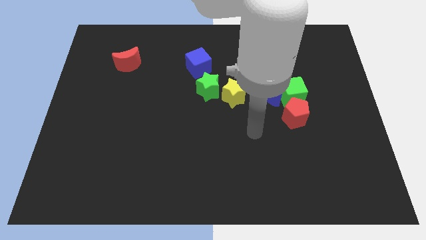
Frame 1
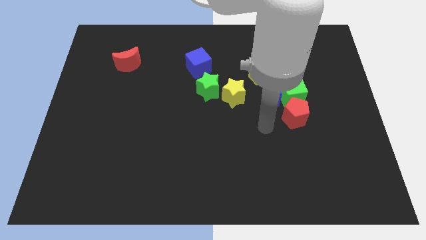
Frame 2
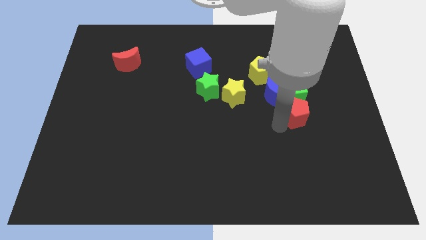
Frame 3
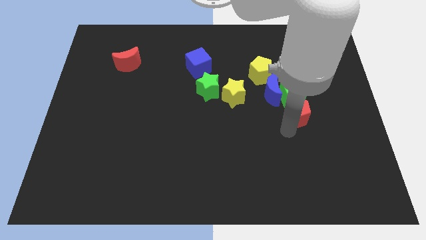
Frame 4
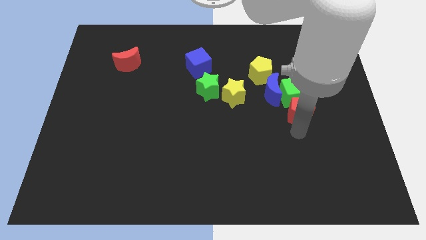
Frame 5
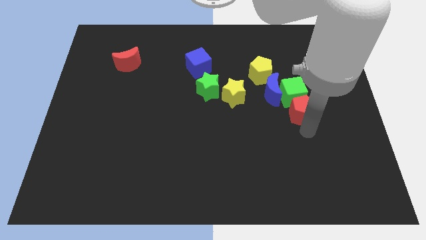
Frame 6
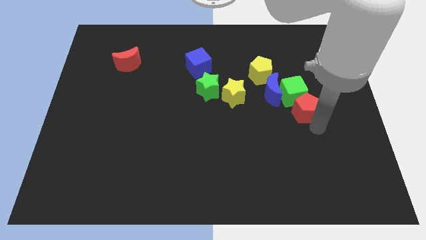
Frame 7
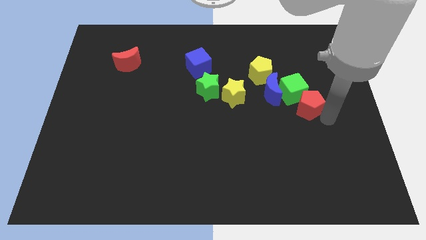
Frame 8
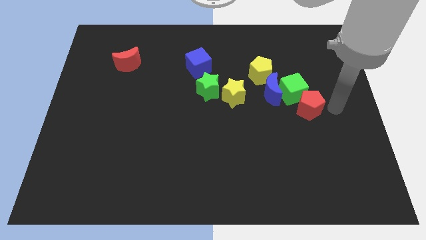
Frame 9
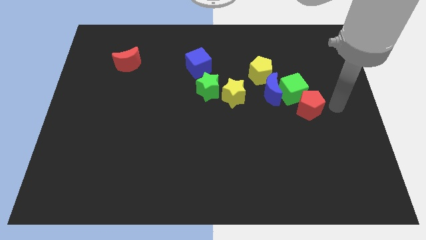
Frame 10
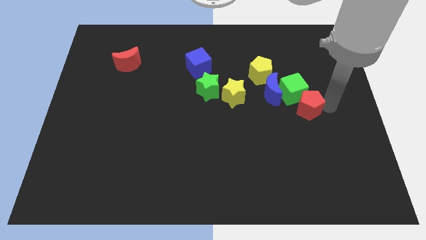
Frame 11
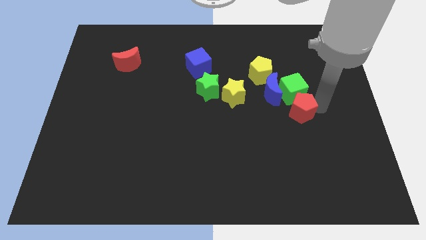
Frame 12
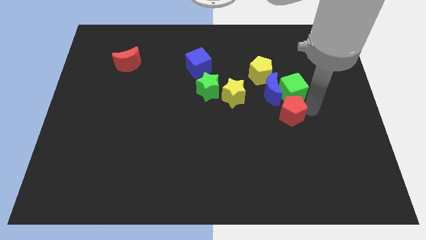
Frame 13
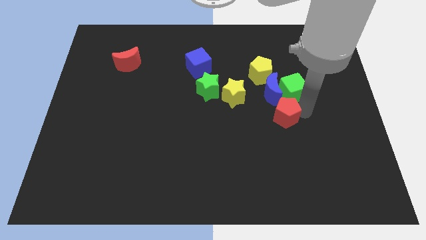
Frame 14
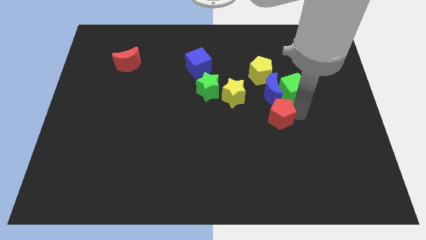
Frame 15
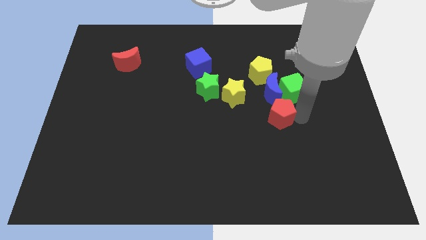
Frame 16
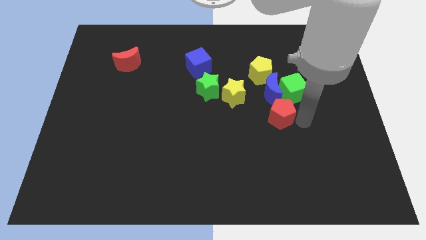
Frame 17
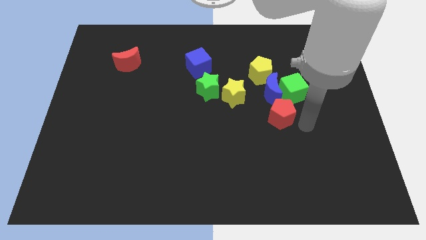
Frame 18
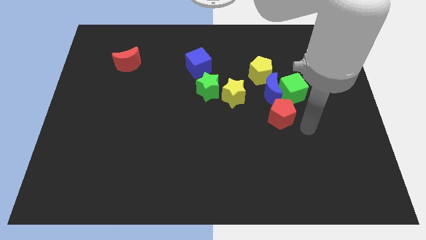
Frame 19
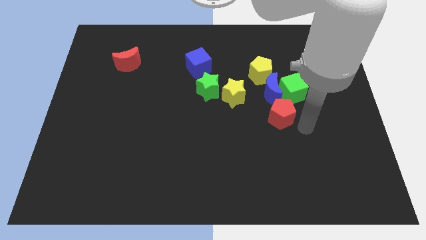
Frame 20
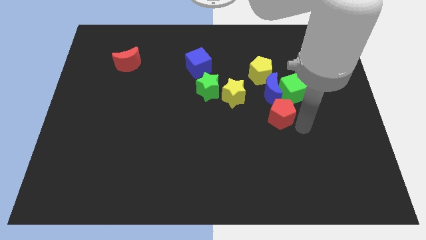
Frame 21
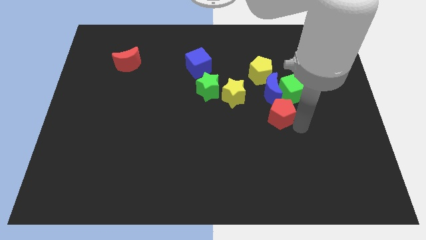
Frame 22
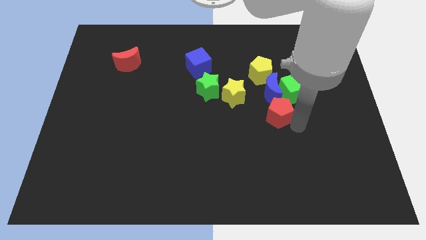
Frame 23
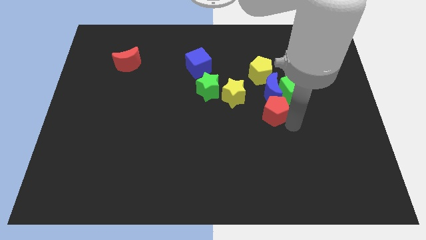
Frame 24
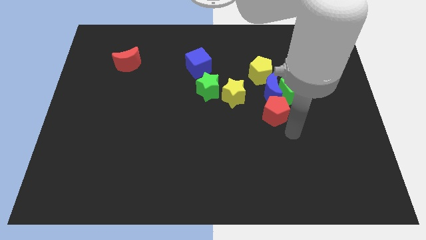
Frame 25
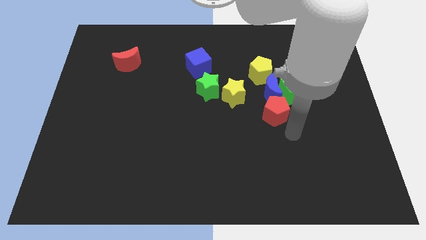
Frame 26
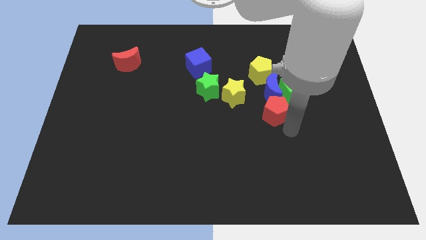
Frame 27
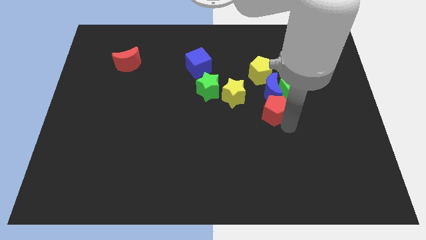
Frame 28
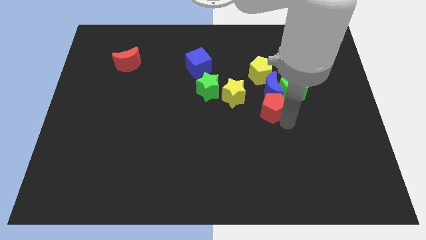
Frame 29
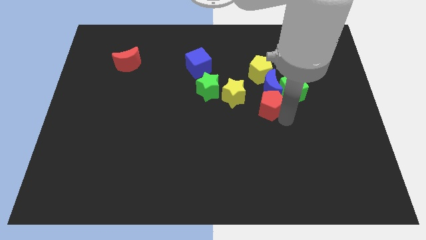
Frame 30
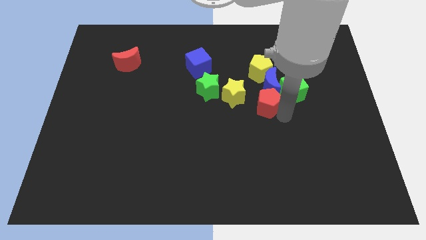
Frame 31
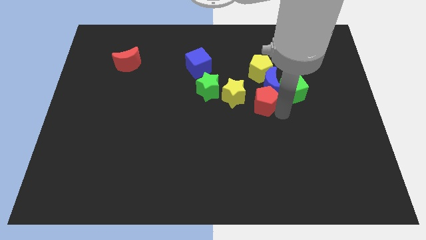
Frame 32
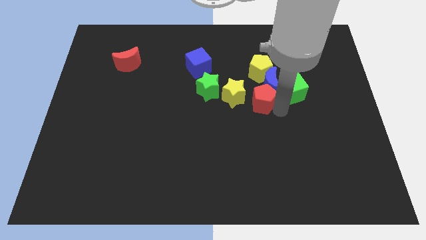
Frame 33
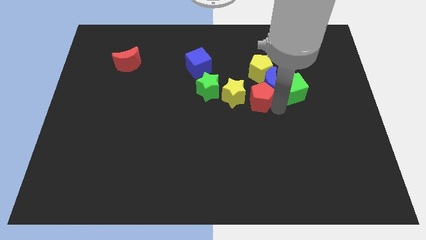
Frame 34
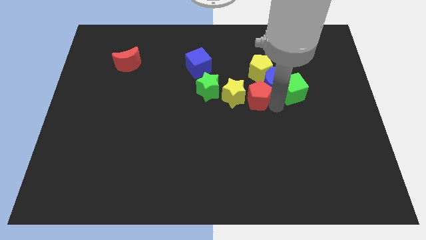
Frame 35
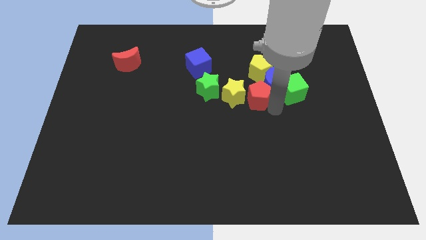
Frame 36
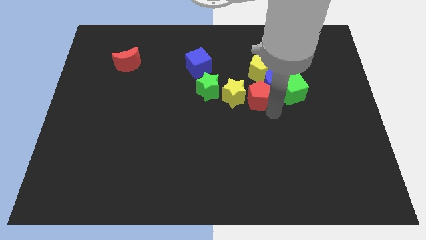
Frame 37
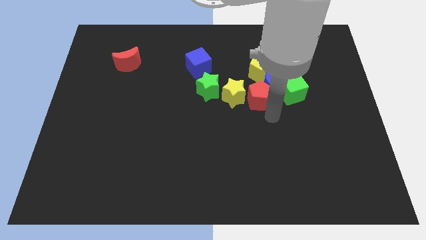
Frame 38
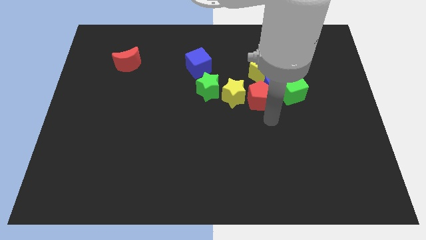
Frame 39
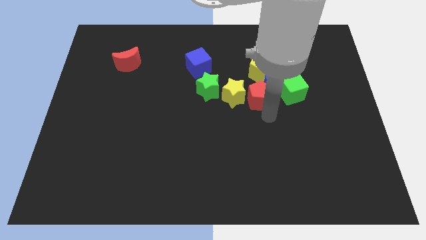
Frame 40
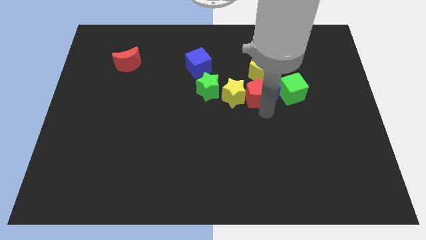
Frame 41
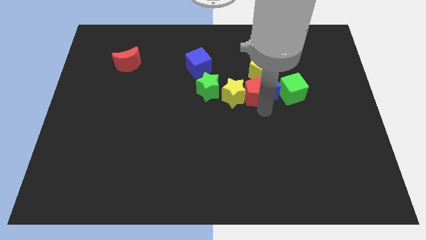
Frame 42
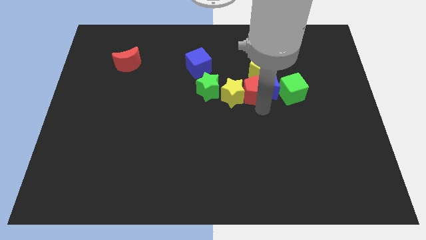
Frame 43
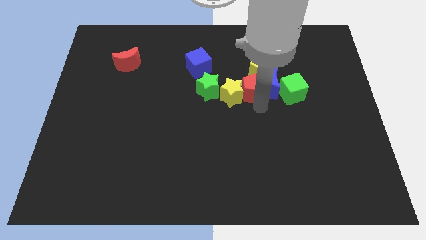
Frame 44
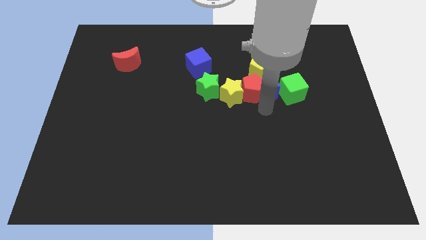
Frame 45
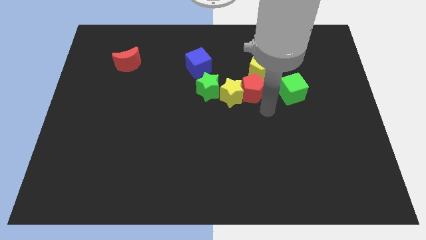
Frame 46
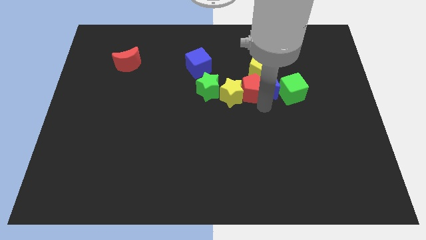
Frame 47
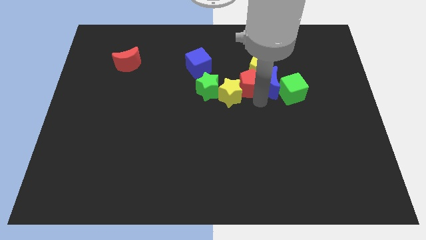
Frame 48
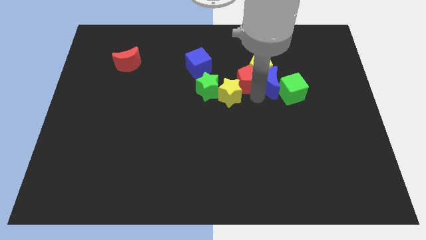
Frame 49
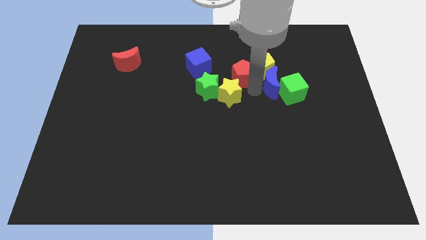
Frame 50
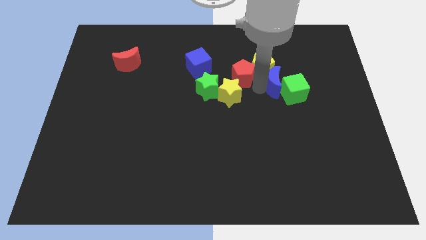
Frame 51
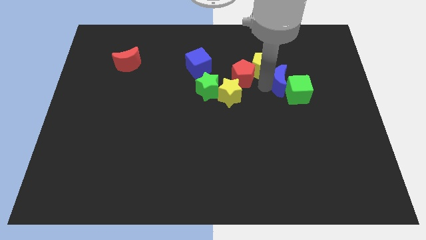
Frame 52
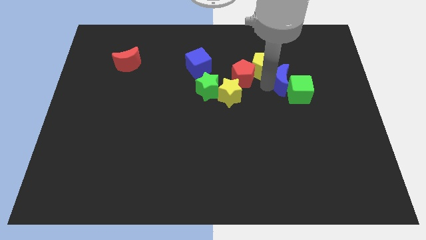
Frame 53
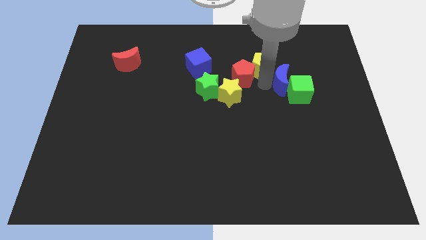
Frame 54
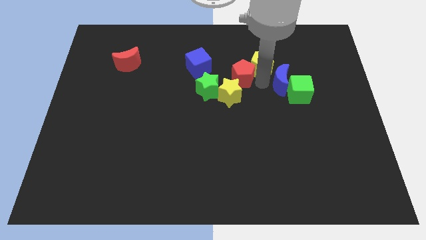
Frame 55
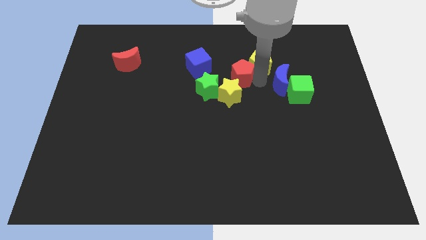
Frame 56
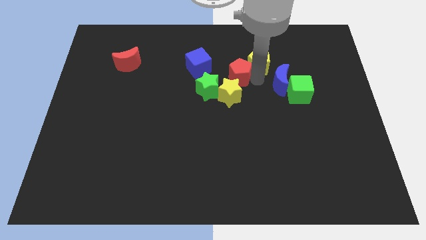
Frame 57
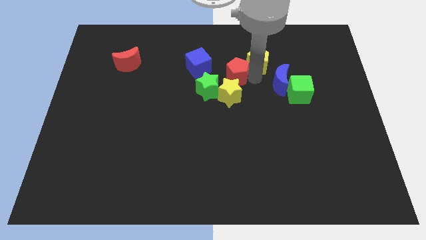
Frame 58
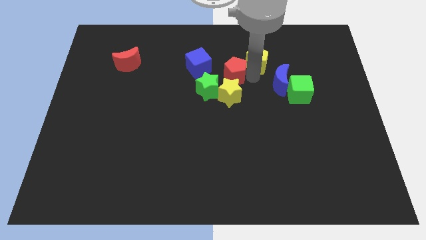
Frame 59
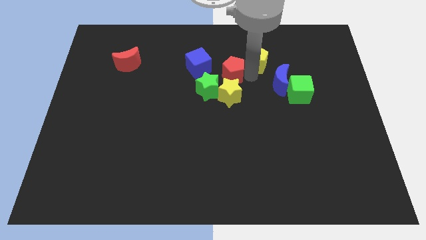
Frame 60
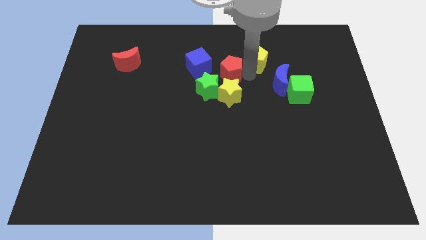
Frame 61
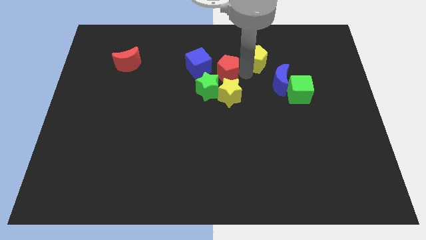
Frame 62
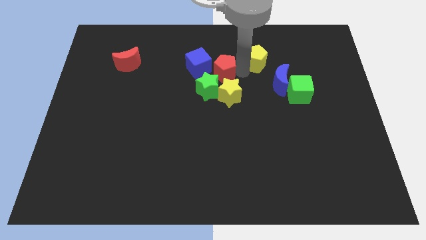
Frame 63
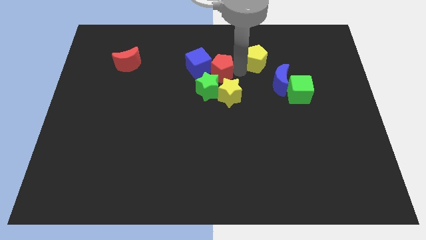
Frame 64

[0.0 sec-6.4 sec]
slide the red pentagon close to the blue cube

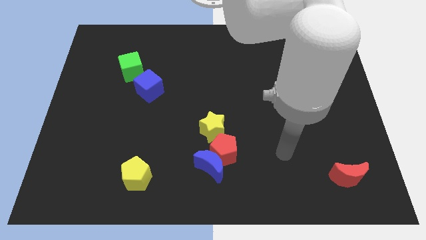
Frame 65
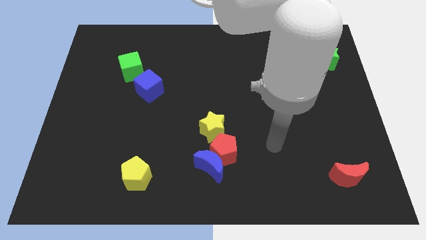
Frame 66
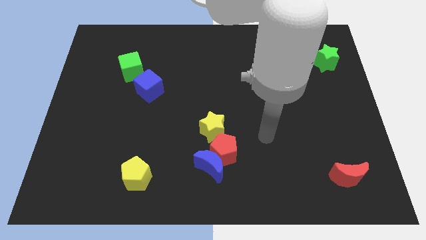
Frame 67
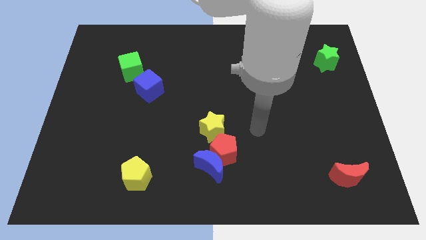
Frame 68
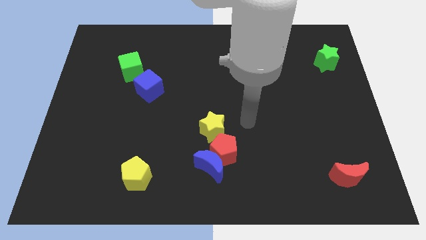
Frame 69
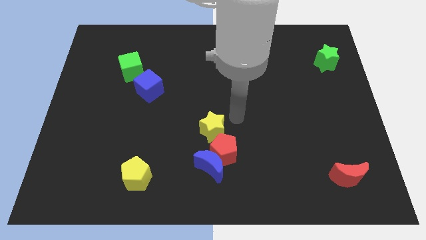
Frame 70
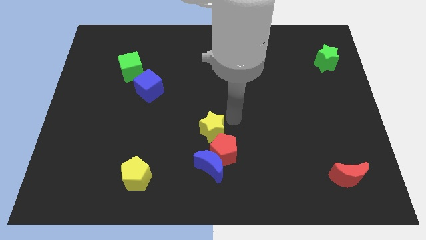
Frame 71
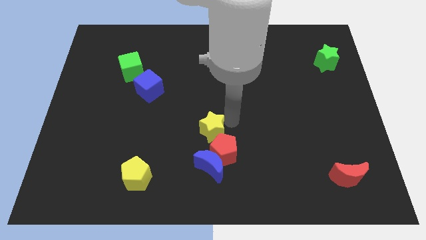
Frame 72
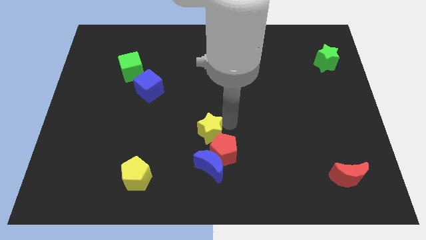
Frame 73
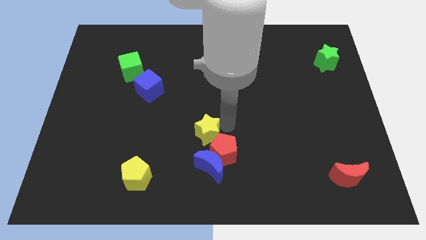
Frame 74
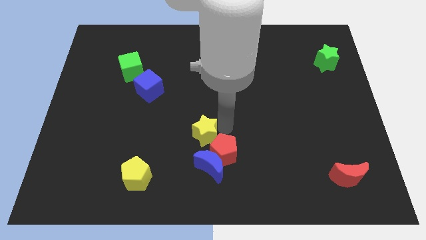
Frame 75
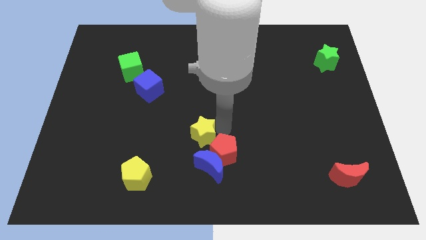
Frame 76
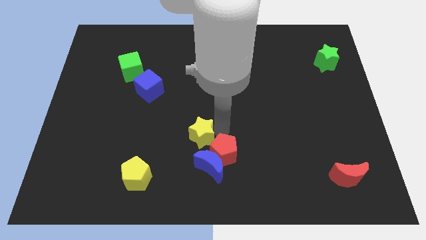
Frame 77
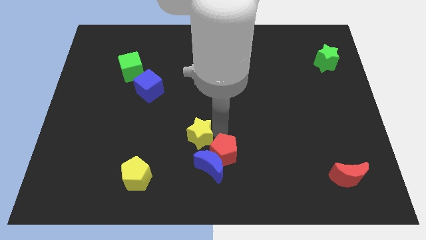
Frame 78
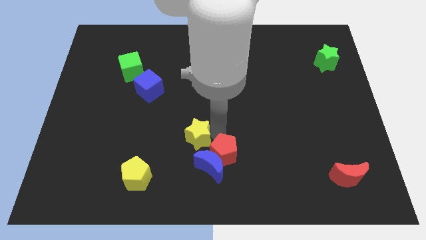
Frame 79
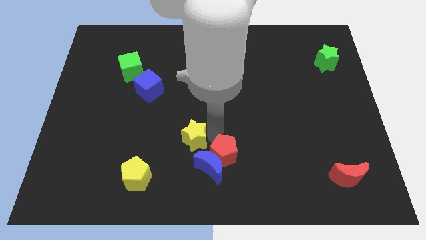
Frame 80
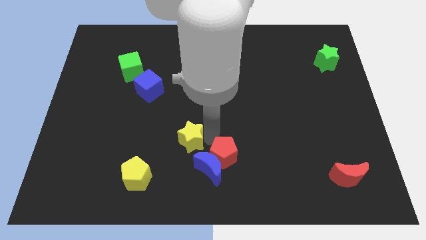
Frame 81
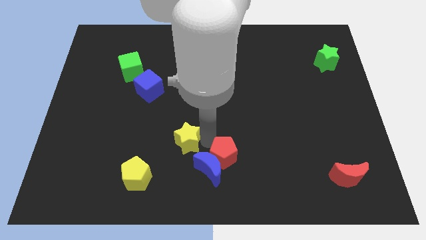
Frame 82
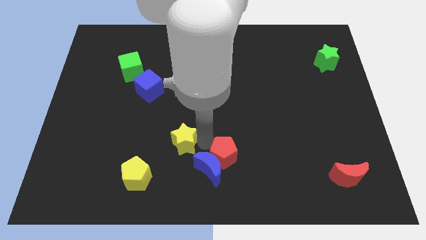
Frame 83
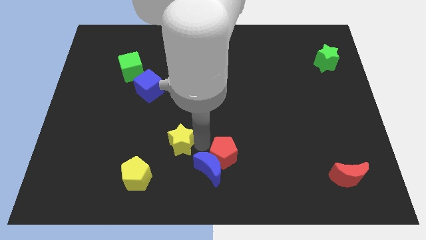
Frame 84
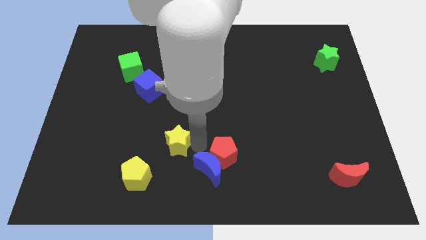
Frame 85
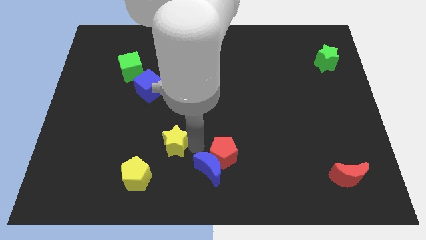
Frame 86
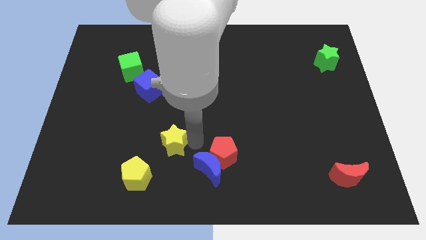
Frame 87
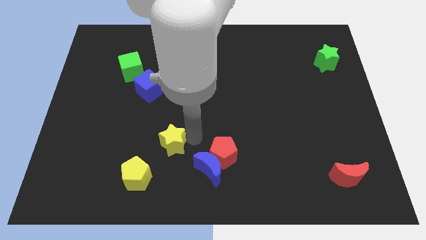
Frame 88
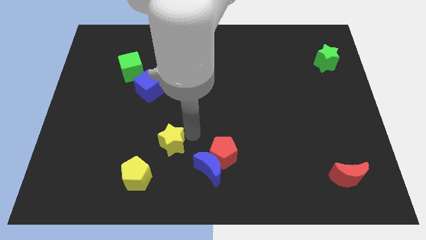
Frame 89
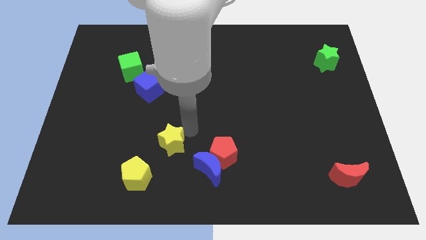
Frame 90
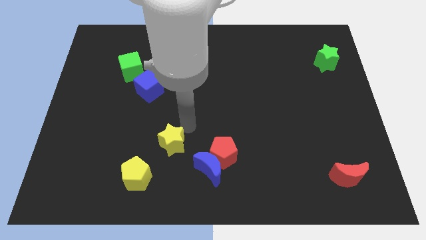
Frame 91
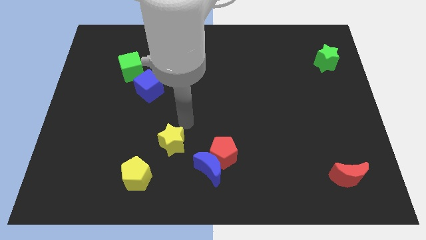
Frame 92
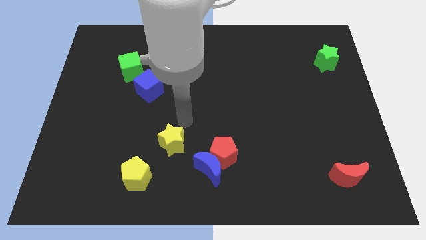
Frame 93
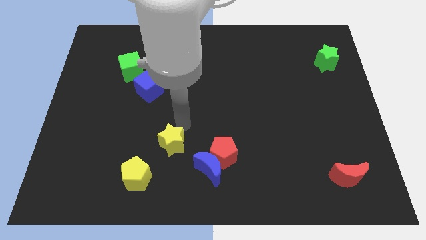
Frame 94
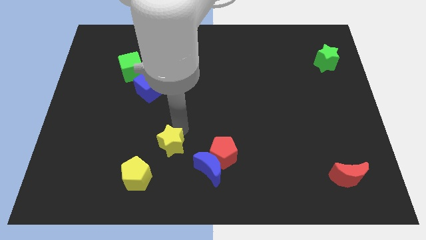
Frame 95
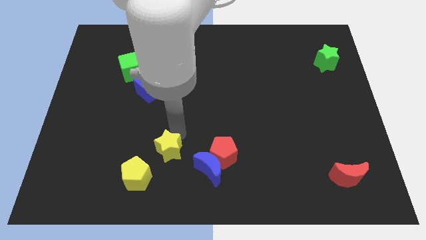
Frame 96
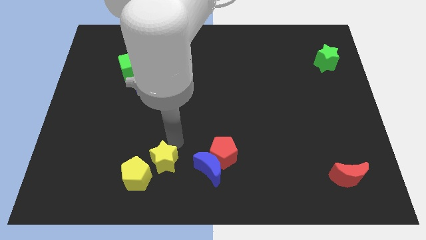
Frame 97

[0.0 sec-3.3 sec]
move the yellow star to the yellow pentagon
